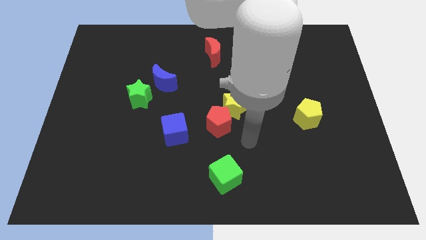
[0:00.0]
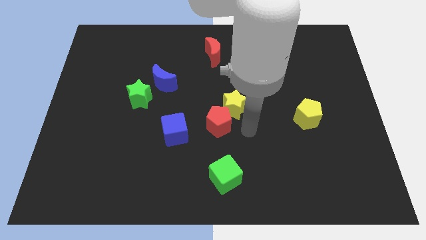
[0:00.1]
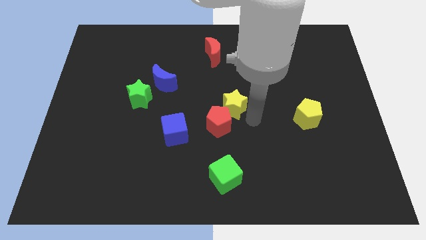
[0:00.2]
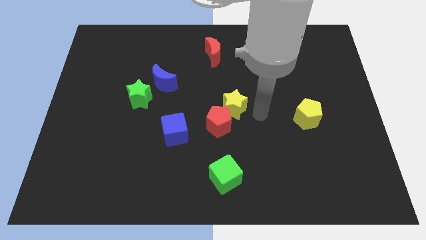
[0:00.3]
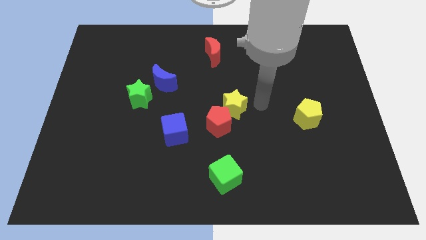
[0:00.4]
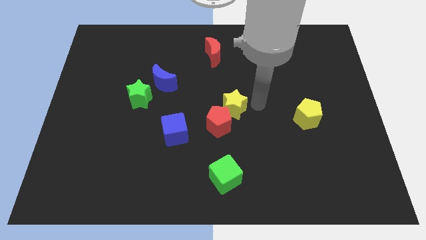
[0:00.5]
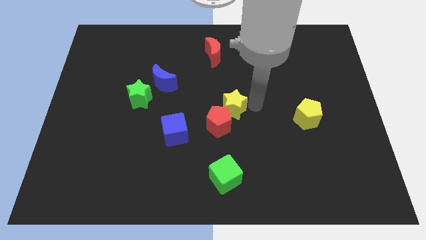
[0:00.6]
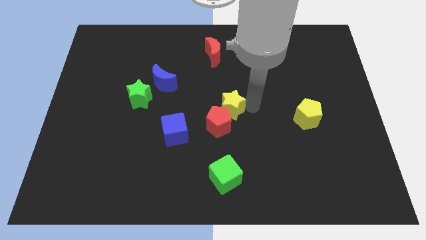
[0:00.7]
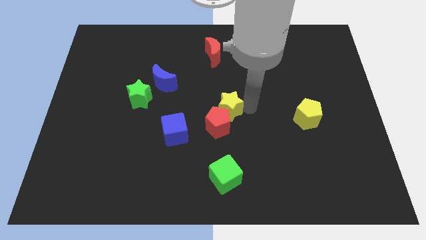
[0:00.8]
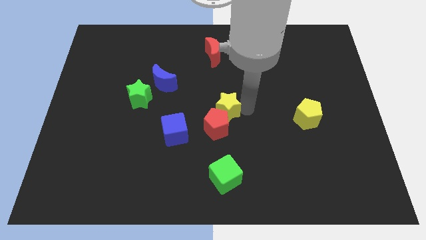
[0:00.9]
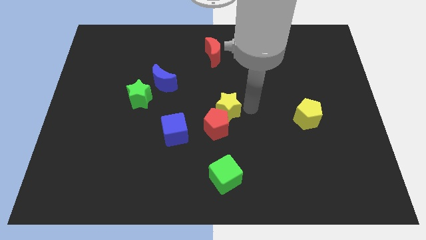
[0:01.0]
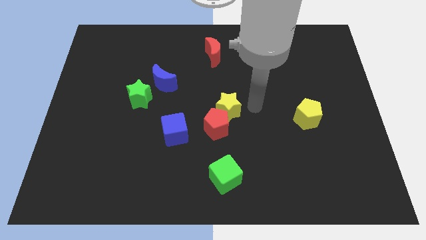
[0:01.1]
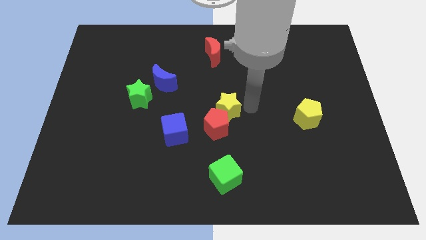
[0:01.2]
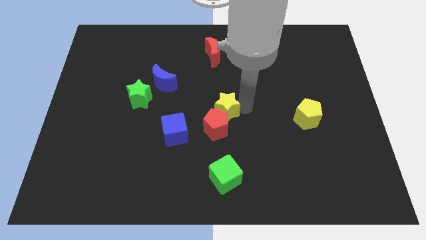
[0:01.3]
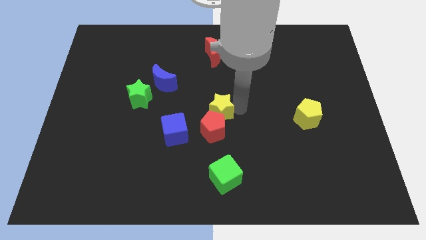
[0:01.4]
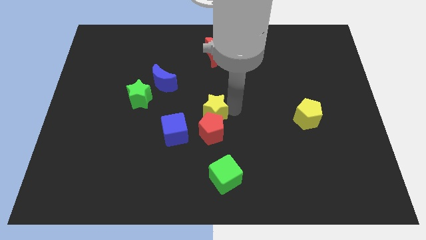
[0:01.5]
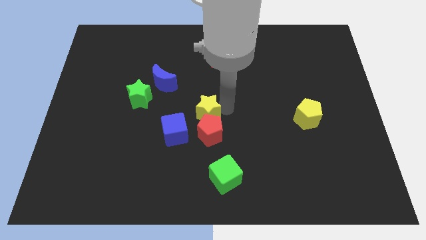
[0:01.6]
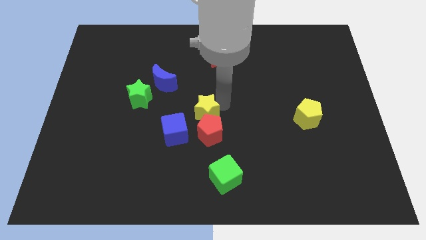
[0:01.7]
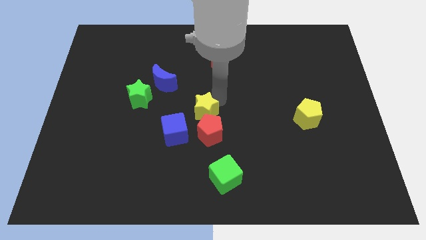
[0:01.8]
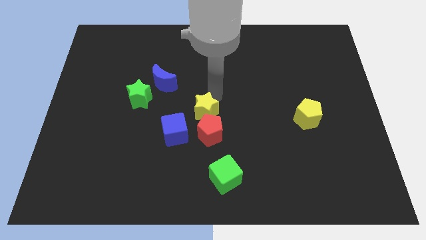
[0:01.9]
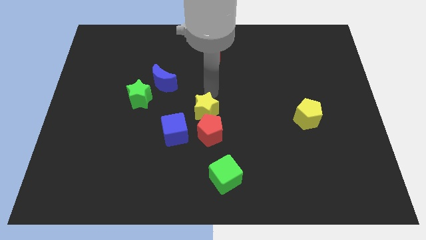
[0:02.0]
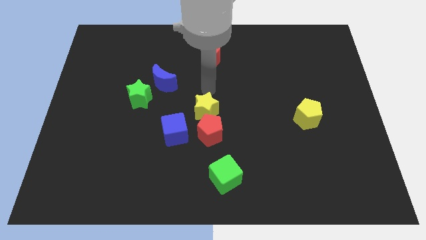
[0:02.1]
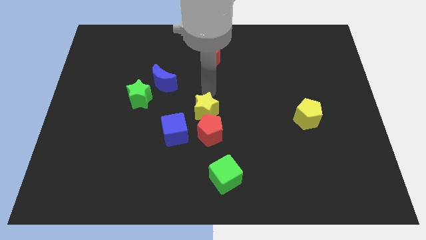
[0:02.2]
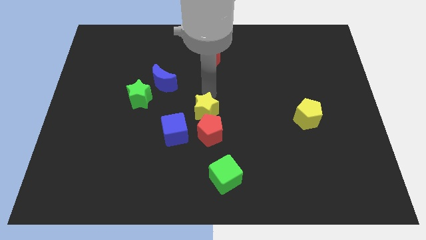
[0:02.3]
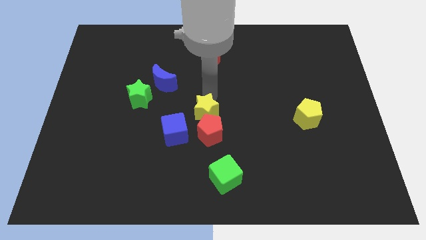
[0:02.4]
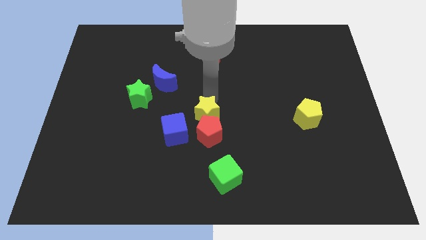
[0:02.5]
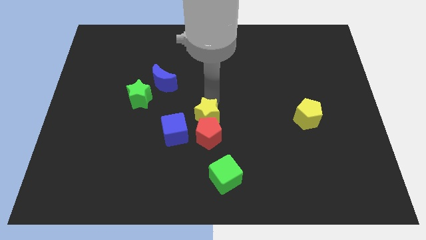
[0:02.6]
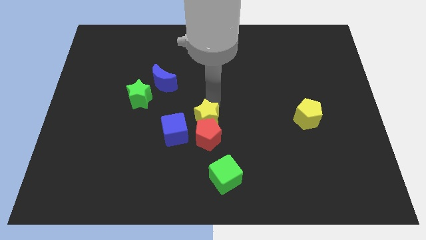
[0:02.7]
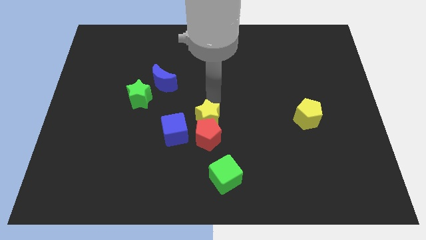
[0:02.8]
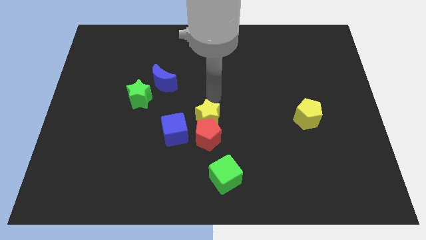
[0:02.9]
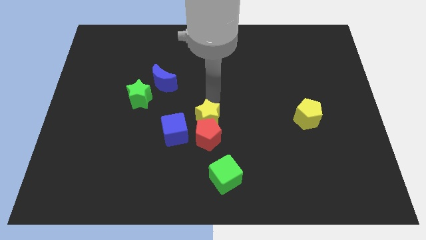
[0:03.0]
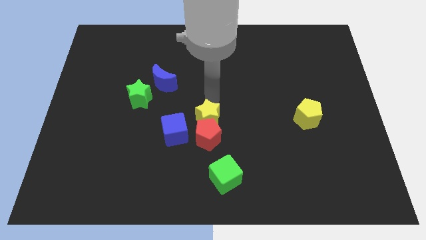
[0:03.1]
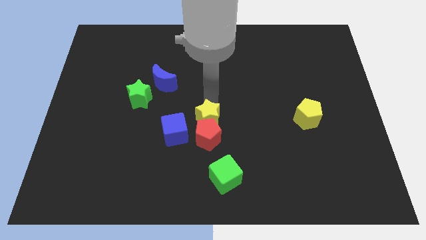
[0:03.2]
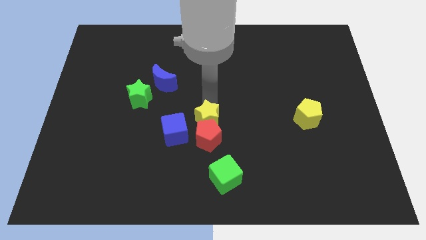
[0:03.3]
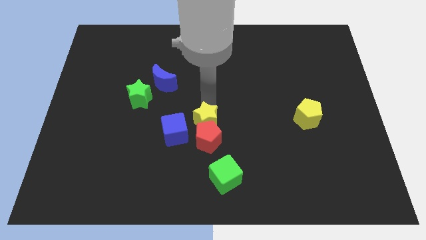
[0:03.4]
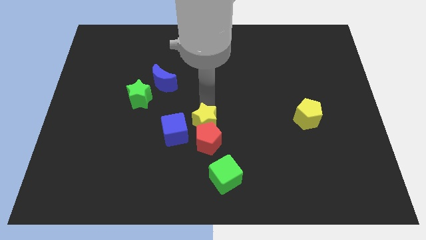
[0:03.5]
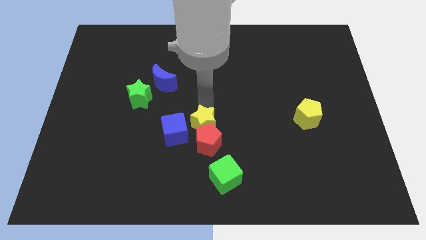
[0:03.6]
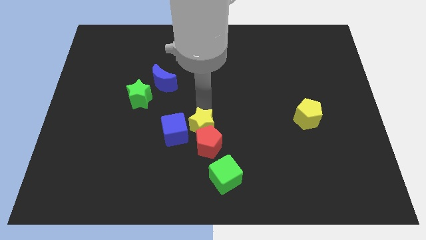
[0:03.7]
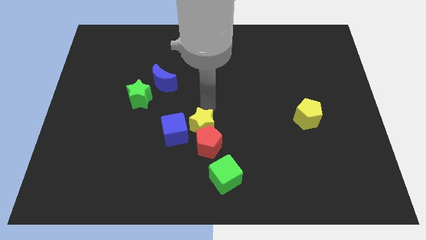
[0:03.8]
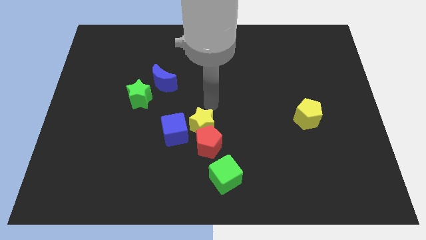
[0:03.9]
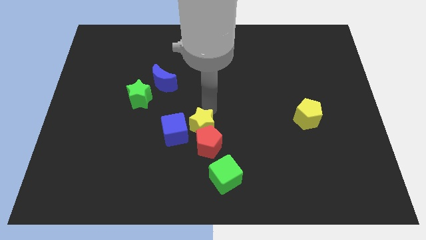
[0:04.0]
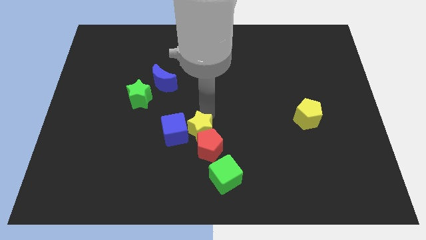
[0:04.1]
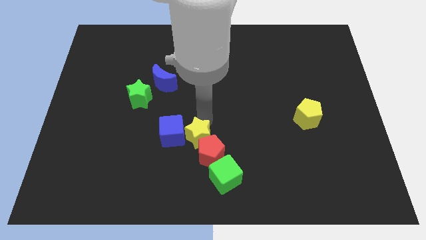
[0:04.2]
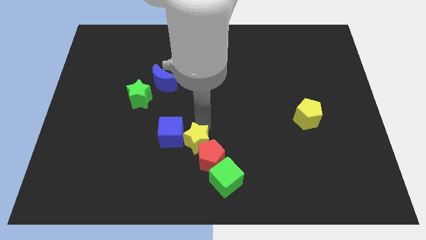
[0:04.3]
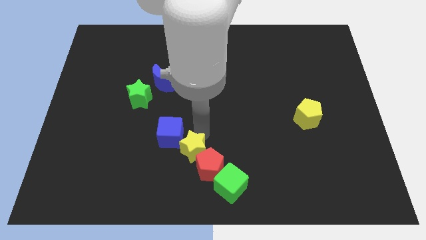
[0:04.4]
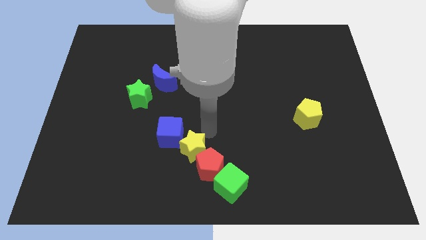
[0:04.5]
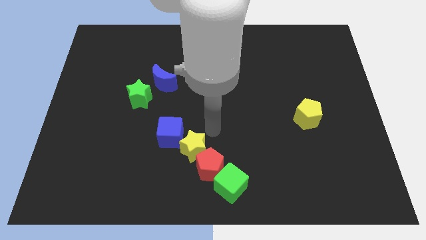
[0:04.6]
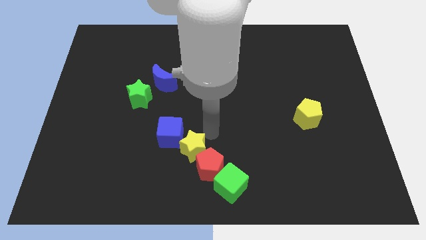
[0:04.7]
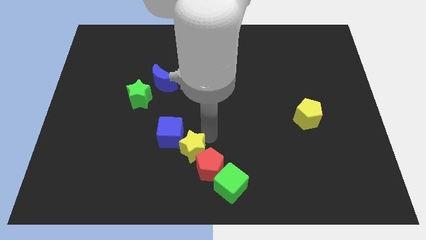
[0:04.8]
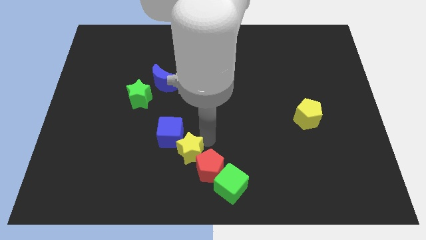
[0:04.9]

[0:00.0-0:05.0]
slide the yellow star to the bottom side of the blue cube

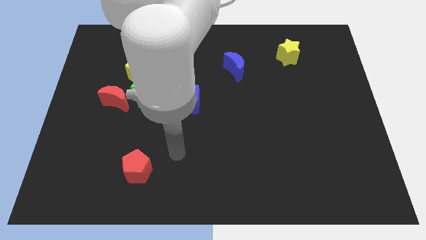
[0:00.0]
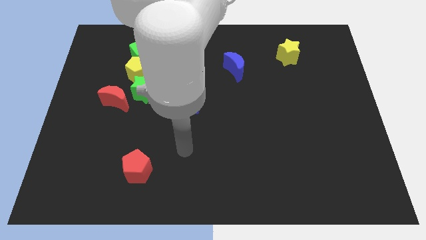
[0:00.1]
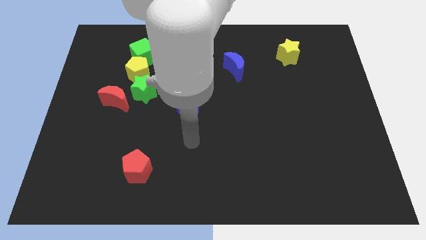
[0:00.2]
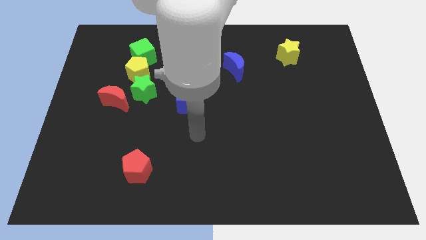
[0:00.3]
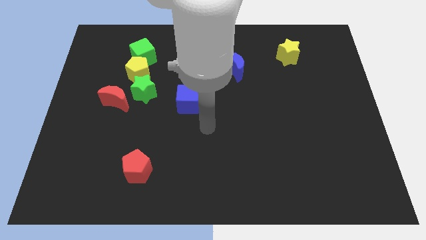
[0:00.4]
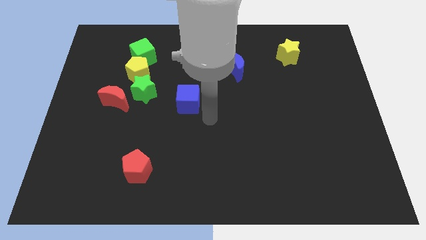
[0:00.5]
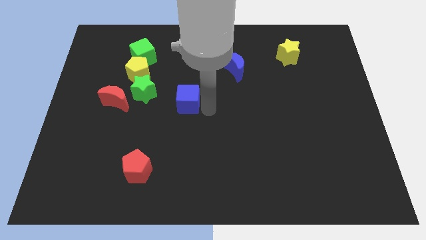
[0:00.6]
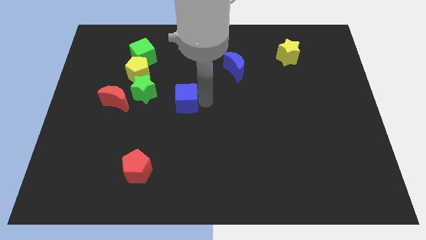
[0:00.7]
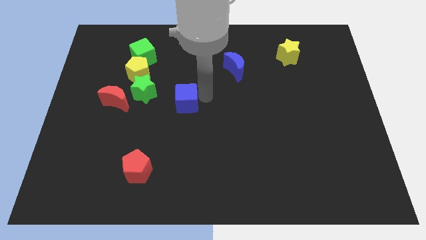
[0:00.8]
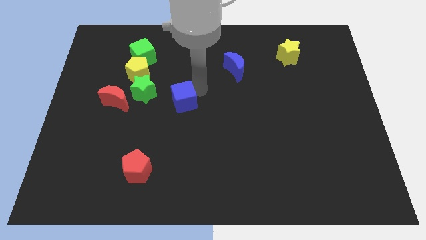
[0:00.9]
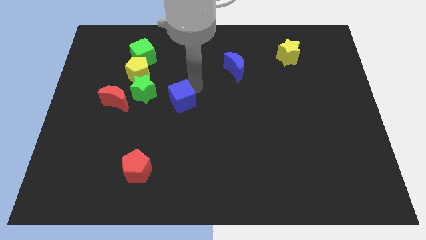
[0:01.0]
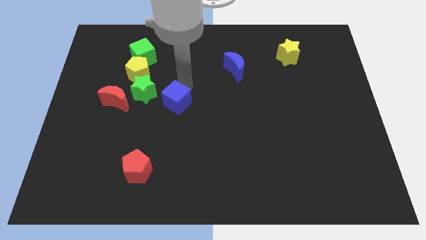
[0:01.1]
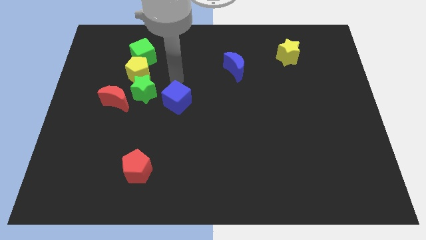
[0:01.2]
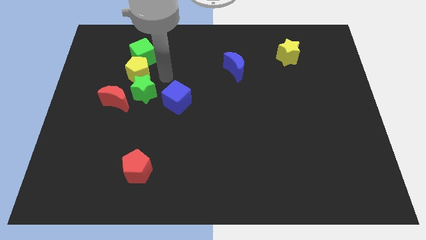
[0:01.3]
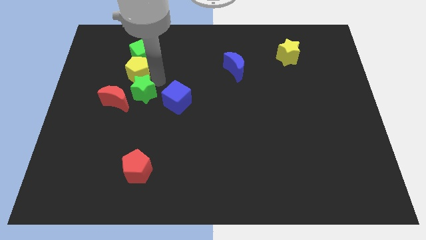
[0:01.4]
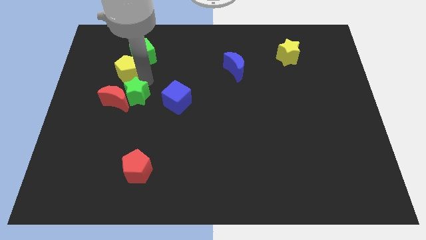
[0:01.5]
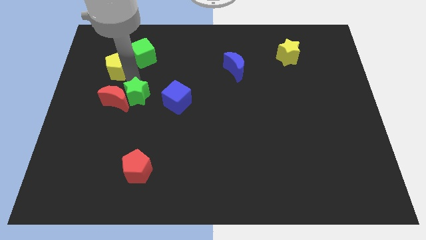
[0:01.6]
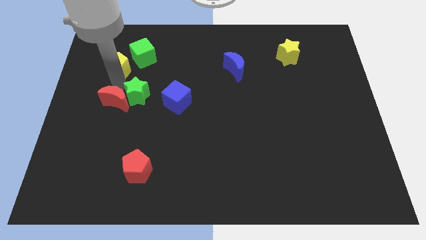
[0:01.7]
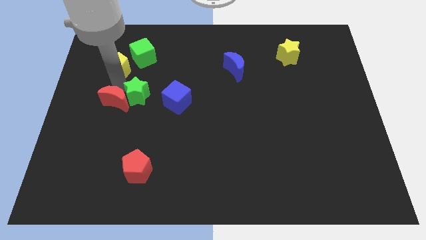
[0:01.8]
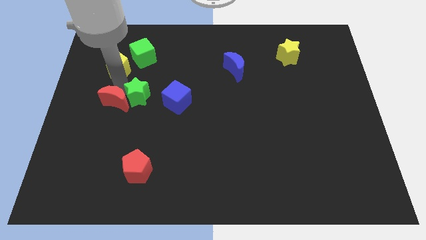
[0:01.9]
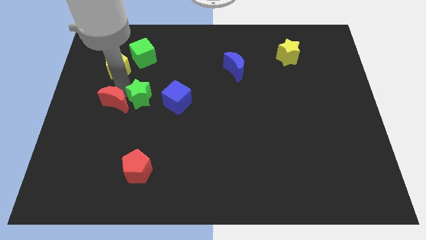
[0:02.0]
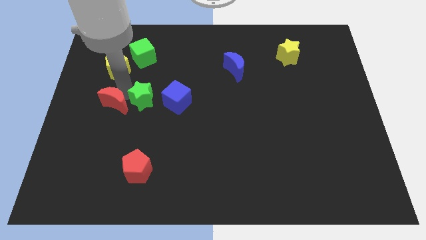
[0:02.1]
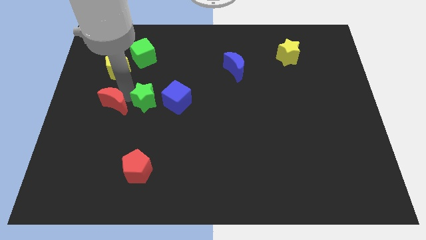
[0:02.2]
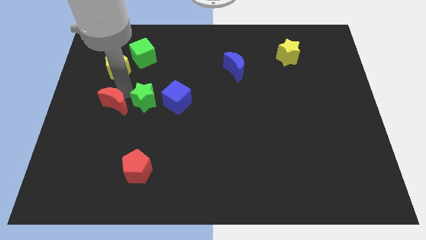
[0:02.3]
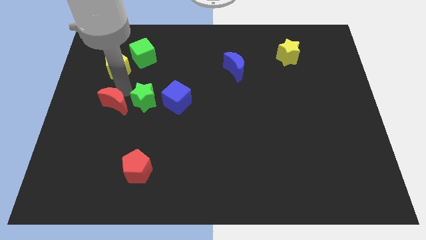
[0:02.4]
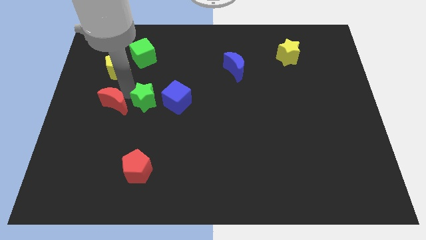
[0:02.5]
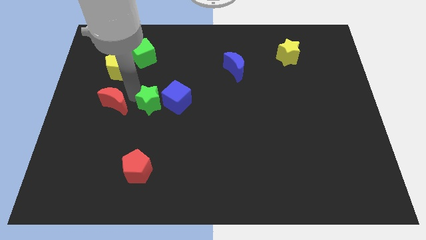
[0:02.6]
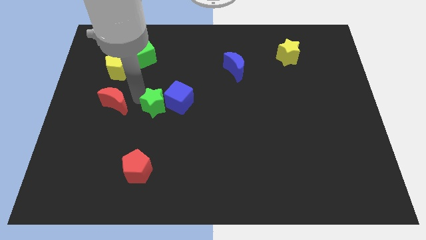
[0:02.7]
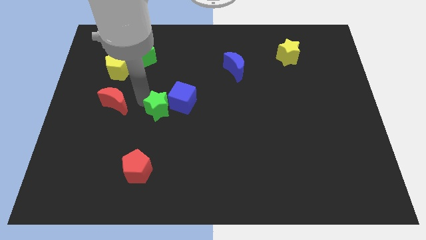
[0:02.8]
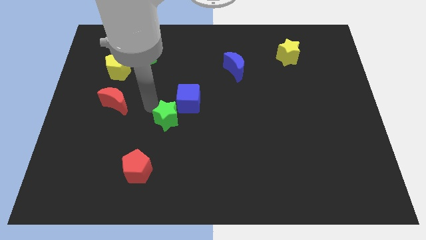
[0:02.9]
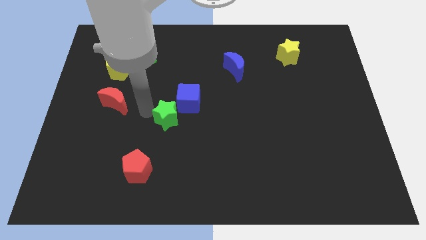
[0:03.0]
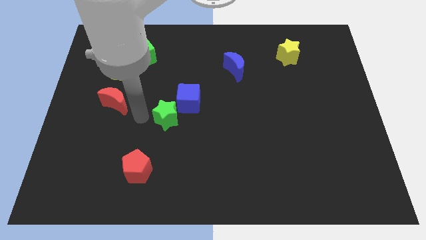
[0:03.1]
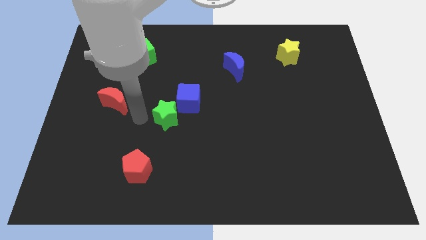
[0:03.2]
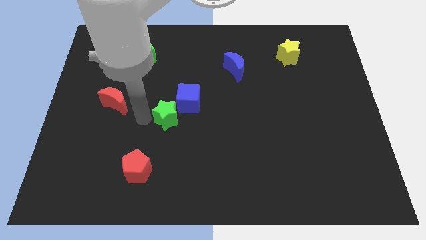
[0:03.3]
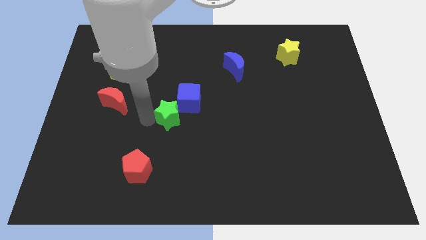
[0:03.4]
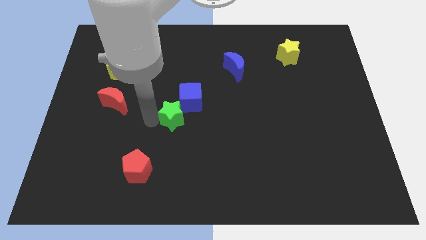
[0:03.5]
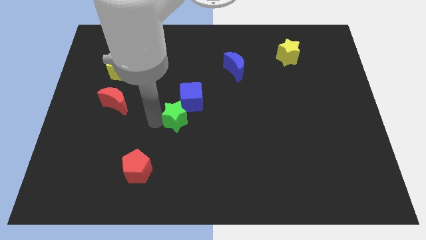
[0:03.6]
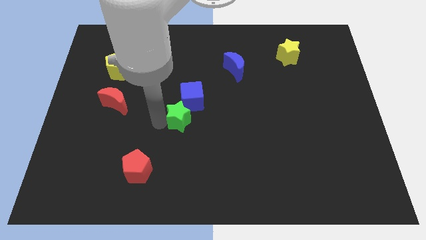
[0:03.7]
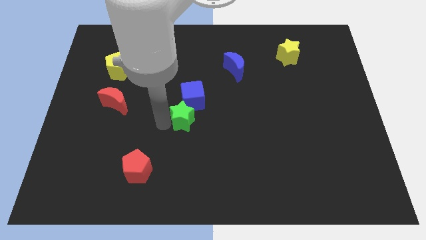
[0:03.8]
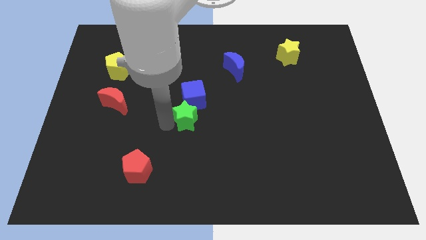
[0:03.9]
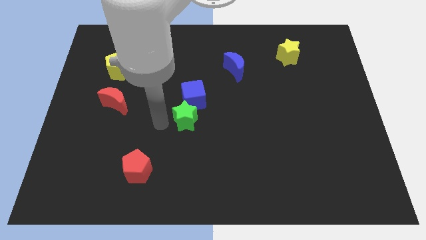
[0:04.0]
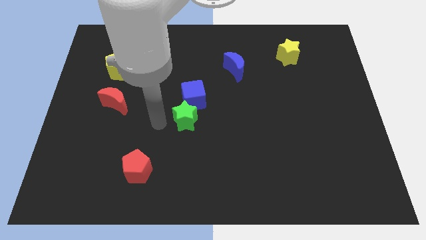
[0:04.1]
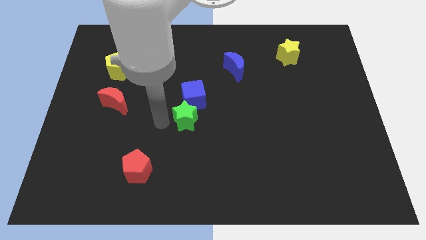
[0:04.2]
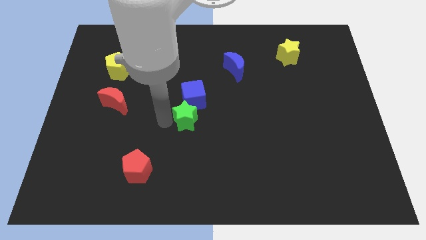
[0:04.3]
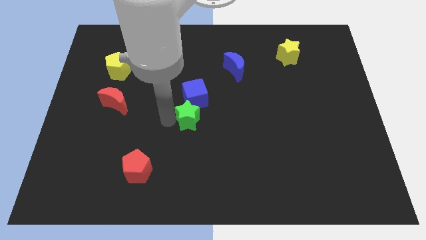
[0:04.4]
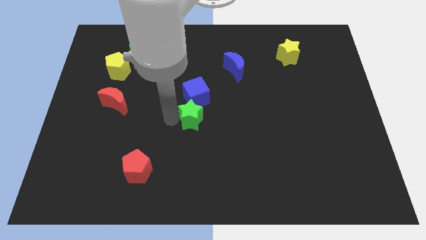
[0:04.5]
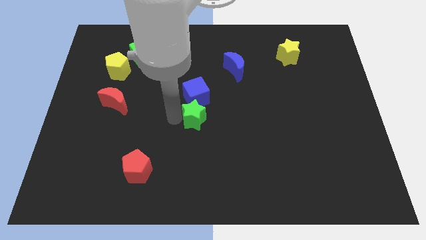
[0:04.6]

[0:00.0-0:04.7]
move the green star to the bottom right side of the blue cube
